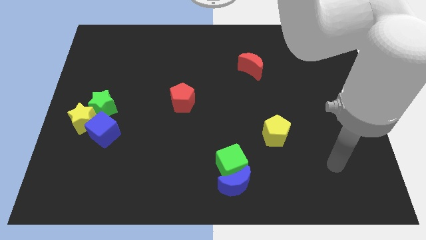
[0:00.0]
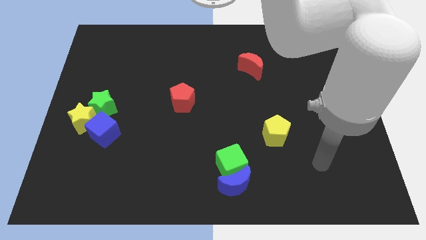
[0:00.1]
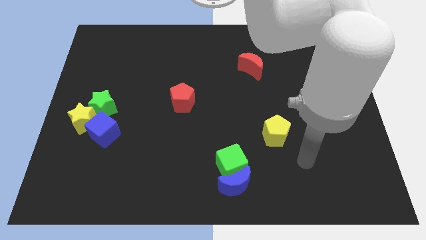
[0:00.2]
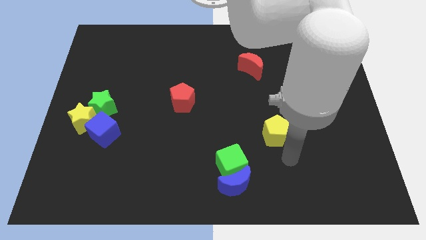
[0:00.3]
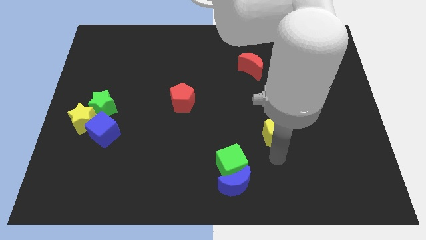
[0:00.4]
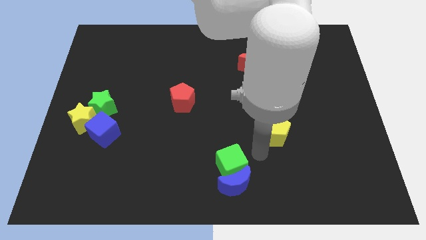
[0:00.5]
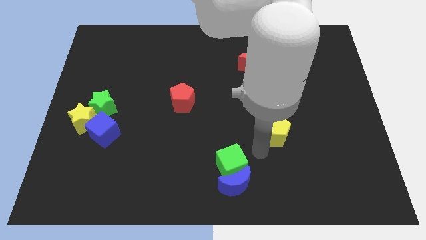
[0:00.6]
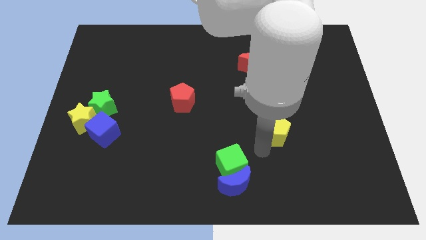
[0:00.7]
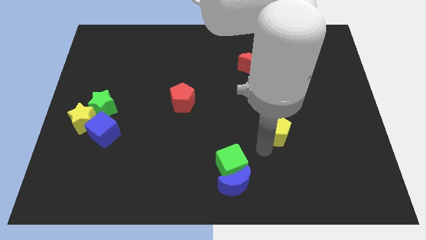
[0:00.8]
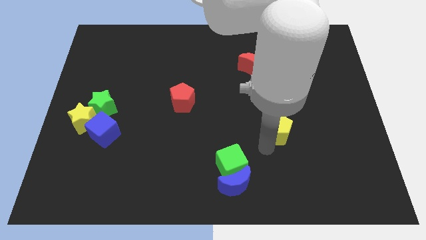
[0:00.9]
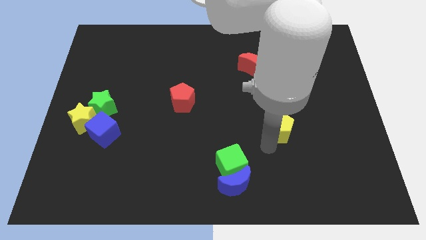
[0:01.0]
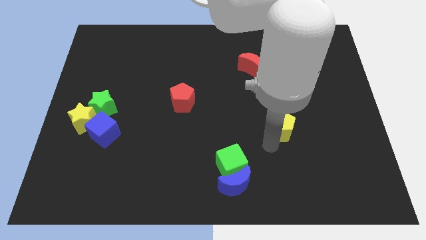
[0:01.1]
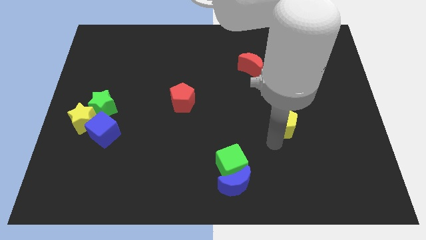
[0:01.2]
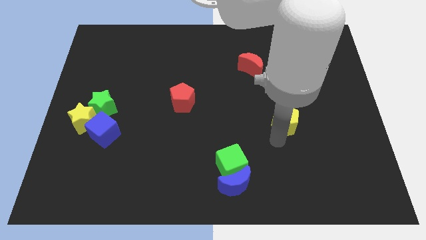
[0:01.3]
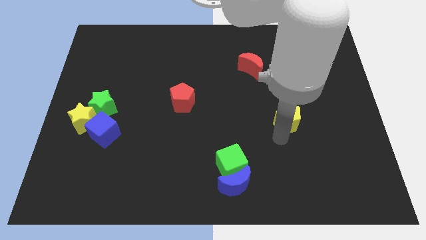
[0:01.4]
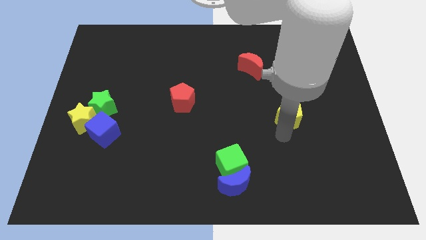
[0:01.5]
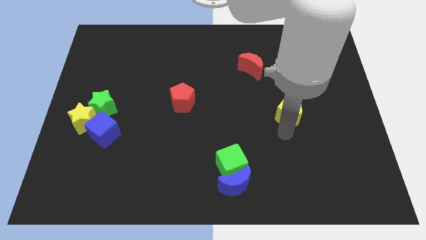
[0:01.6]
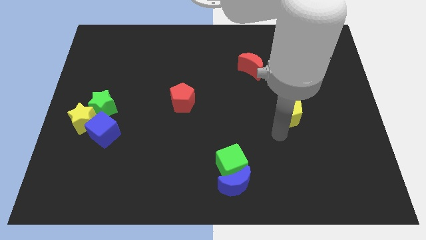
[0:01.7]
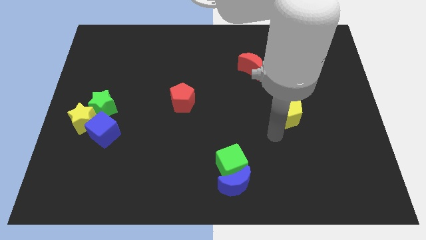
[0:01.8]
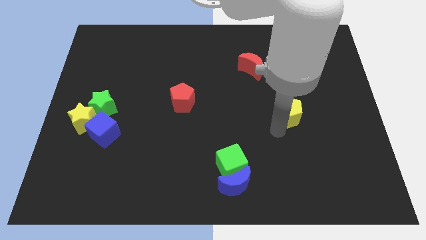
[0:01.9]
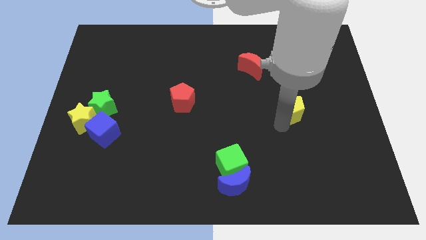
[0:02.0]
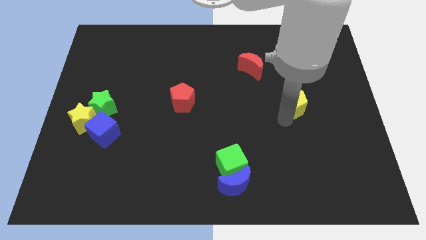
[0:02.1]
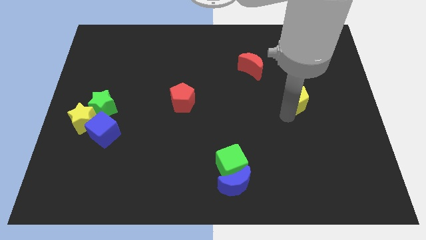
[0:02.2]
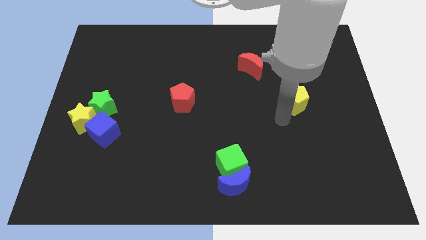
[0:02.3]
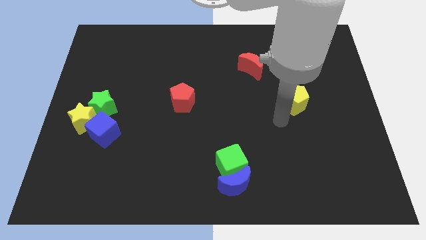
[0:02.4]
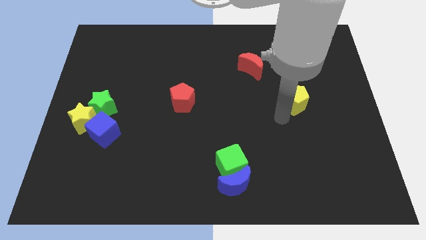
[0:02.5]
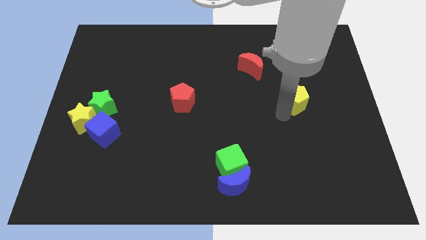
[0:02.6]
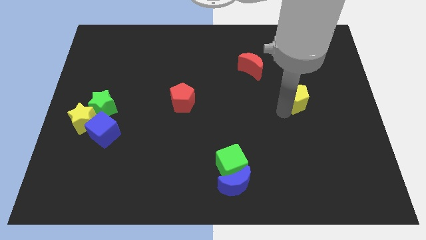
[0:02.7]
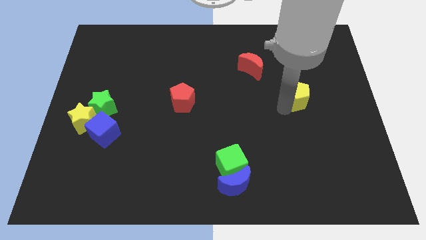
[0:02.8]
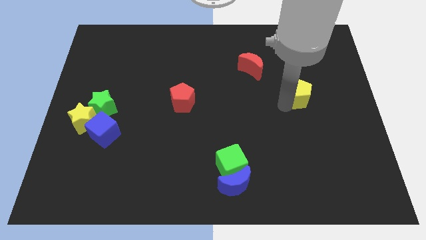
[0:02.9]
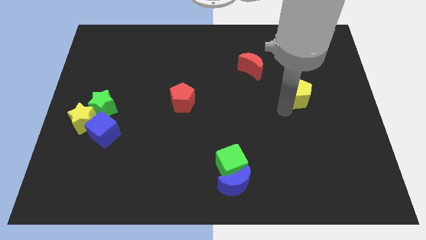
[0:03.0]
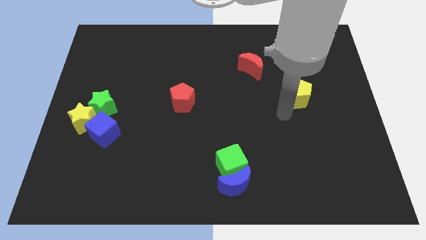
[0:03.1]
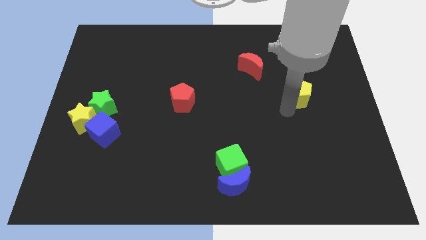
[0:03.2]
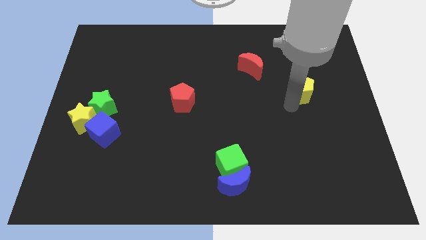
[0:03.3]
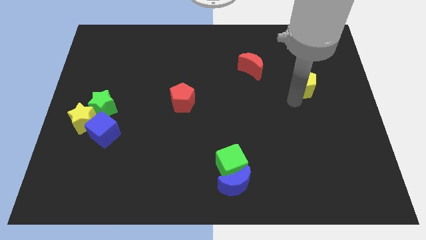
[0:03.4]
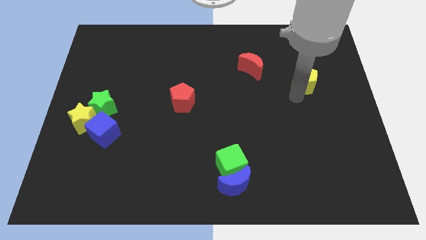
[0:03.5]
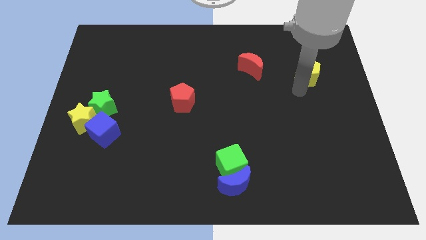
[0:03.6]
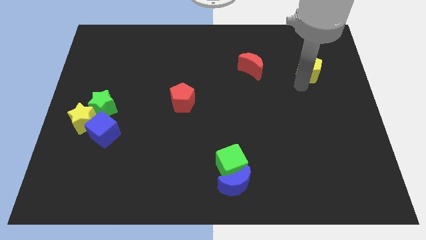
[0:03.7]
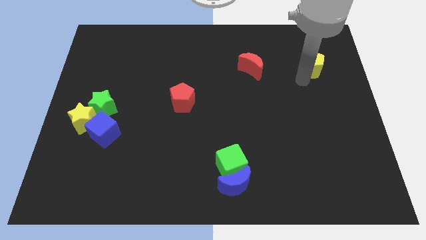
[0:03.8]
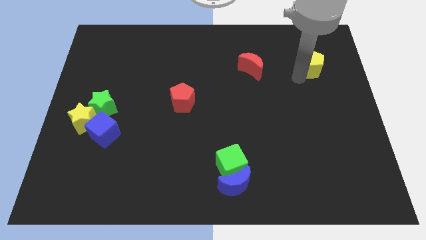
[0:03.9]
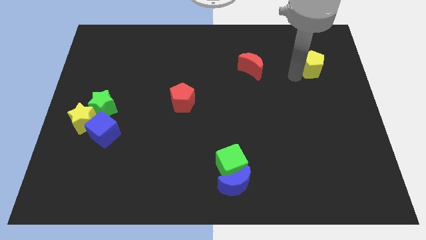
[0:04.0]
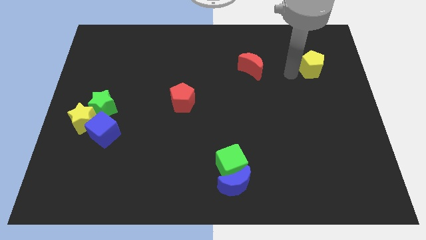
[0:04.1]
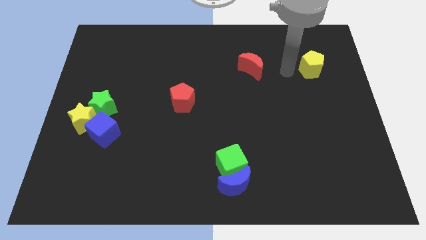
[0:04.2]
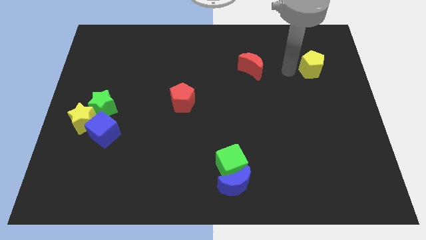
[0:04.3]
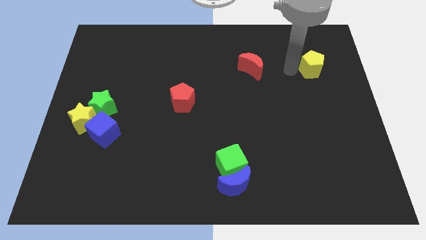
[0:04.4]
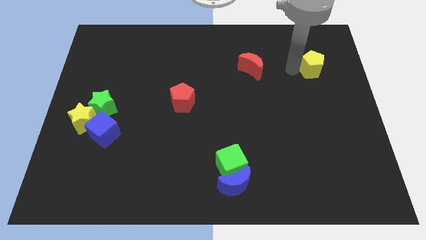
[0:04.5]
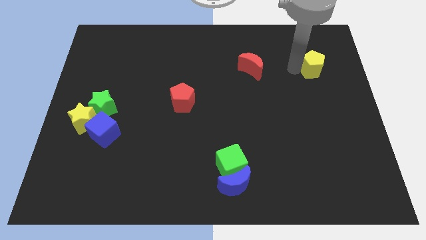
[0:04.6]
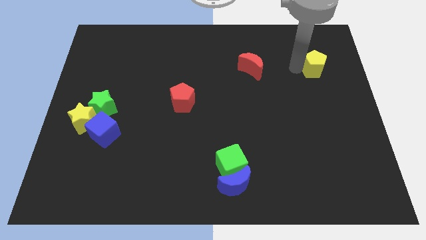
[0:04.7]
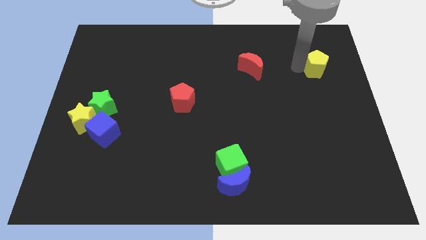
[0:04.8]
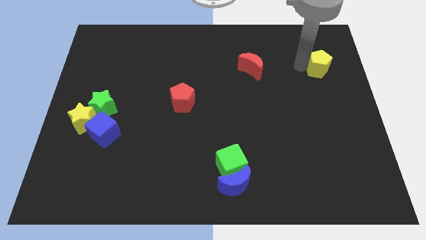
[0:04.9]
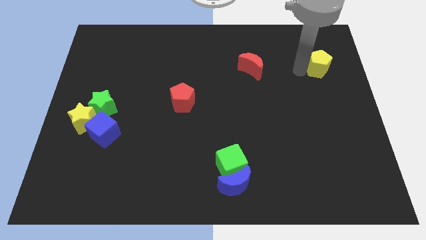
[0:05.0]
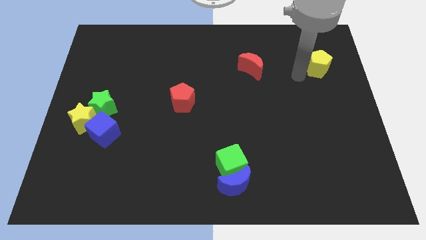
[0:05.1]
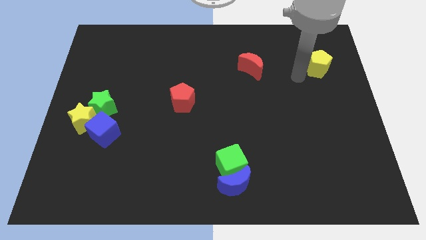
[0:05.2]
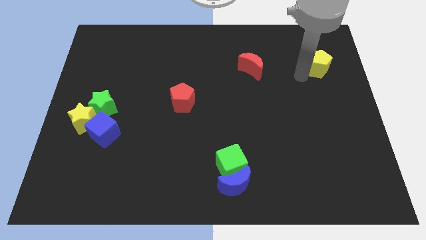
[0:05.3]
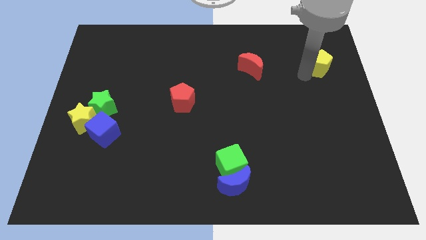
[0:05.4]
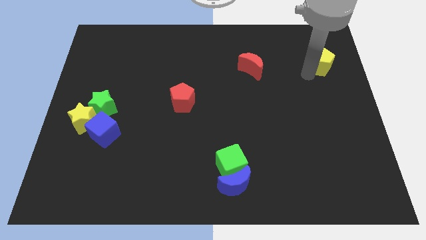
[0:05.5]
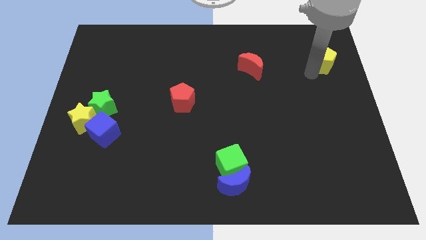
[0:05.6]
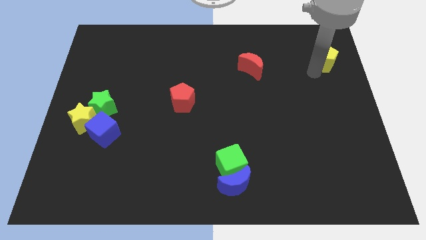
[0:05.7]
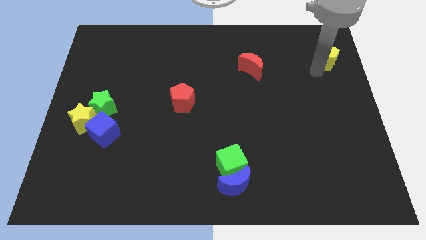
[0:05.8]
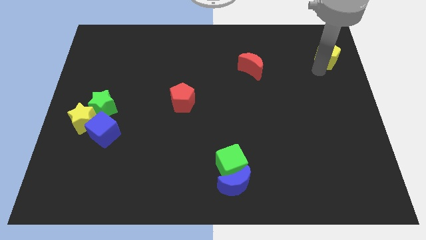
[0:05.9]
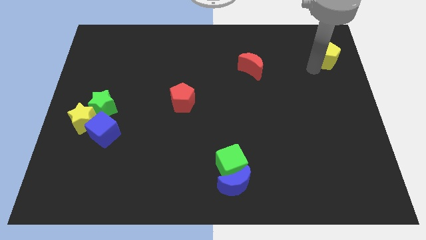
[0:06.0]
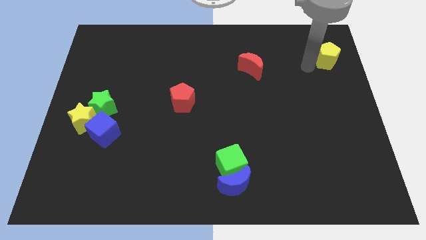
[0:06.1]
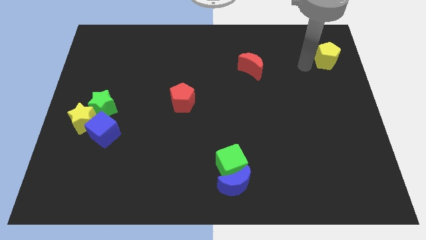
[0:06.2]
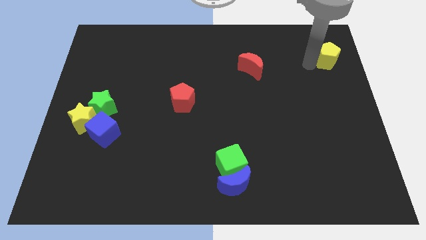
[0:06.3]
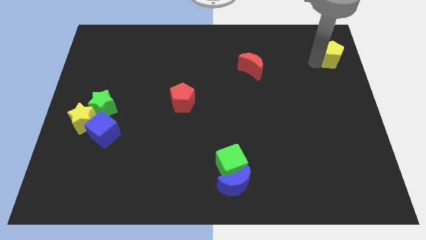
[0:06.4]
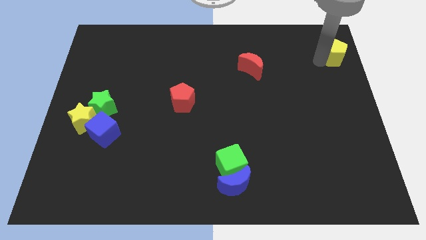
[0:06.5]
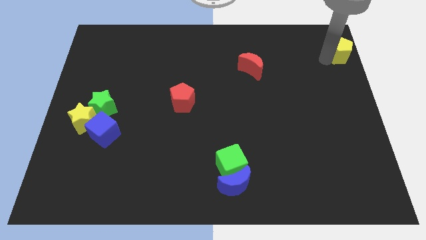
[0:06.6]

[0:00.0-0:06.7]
slide the yellow pentagon to the upper right corner
